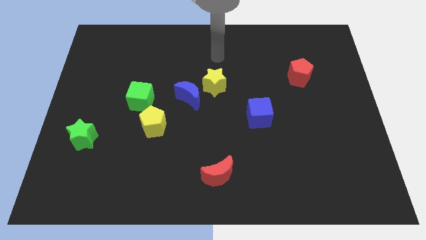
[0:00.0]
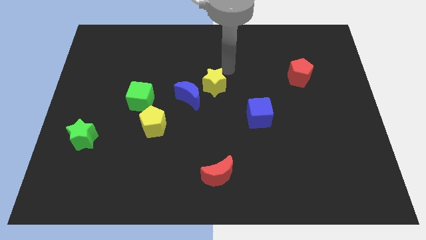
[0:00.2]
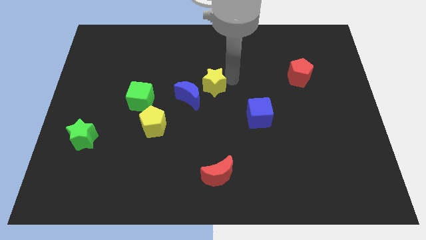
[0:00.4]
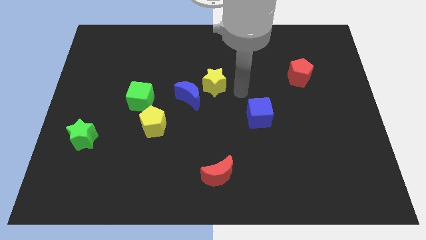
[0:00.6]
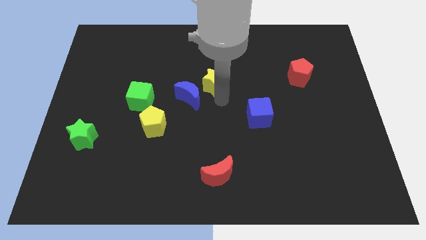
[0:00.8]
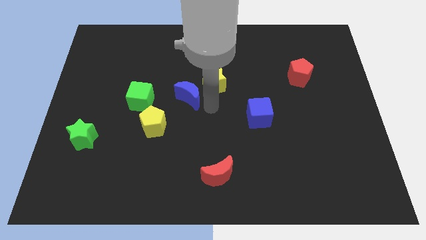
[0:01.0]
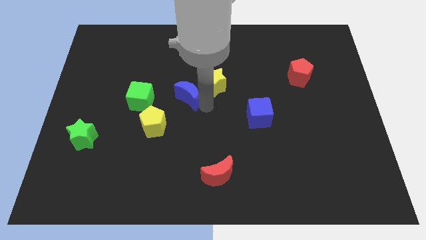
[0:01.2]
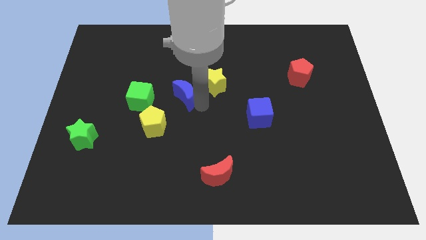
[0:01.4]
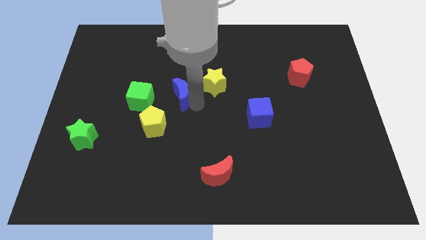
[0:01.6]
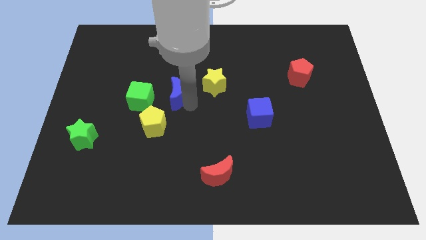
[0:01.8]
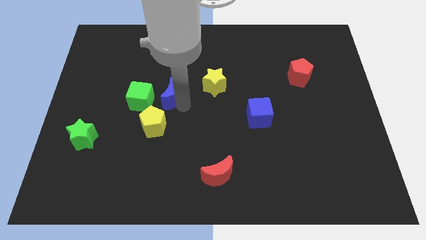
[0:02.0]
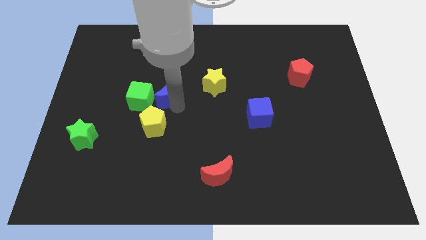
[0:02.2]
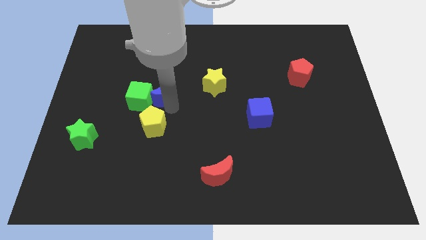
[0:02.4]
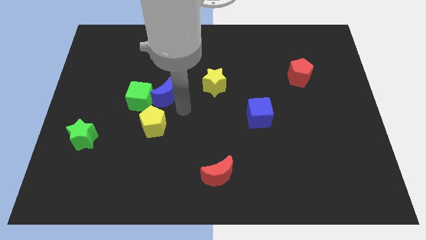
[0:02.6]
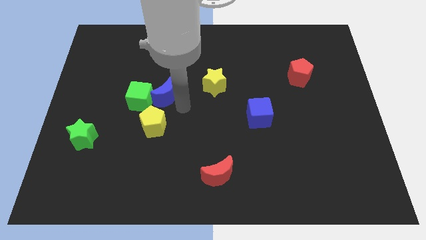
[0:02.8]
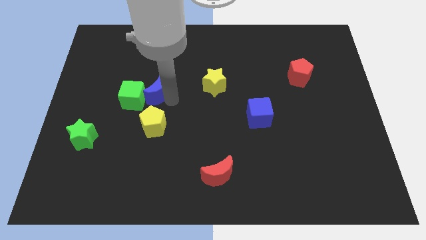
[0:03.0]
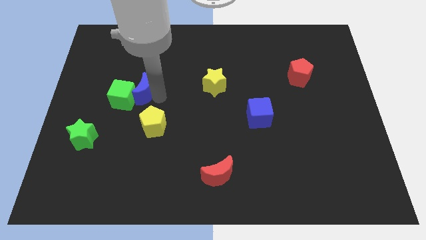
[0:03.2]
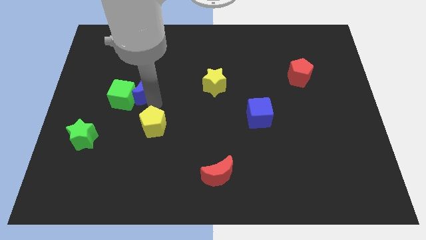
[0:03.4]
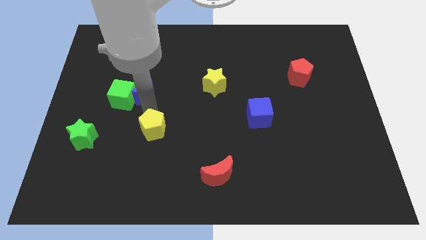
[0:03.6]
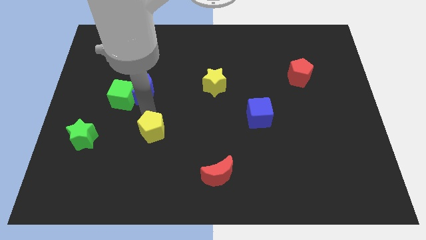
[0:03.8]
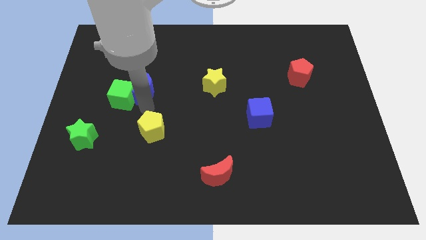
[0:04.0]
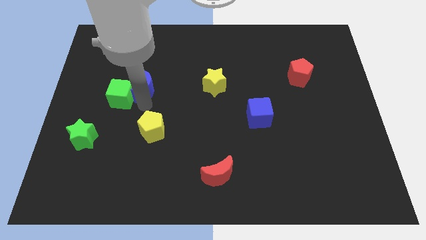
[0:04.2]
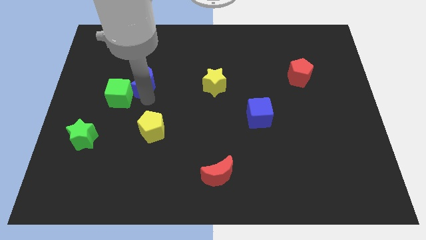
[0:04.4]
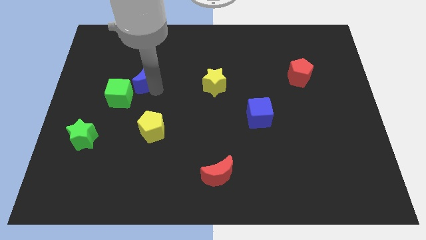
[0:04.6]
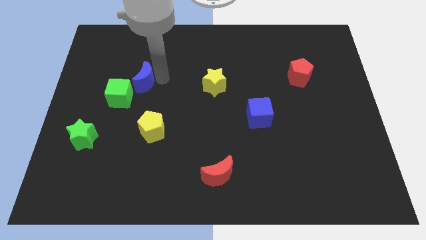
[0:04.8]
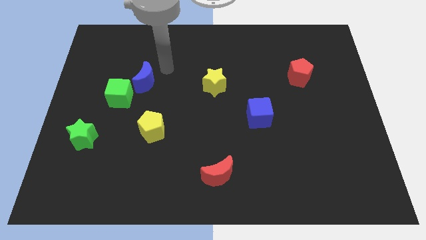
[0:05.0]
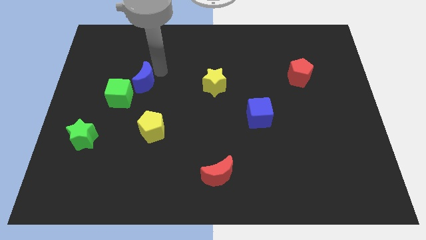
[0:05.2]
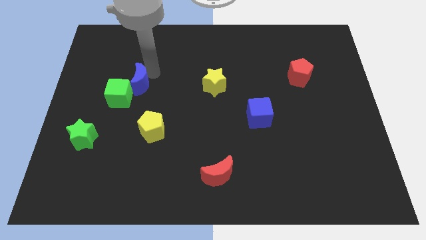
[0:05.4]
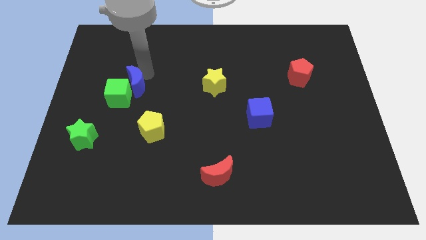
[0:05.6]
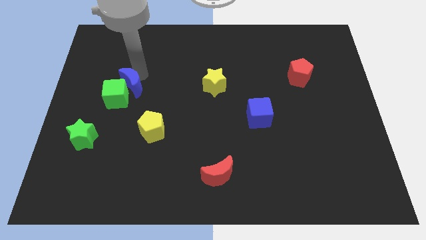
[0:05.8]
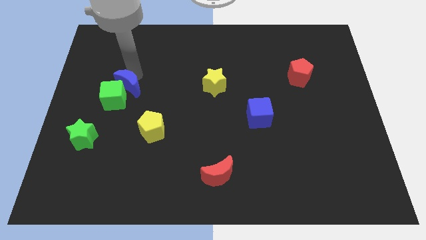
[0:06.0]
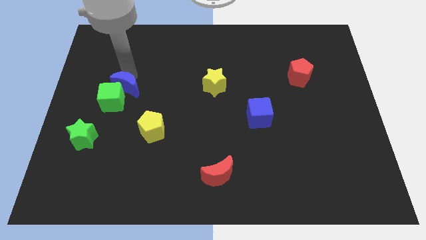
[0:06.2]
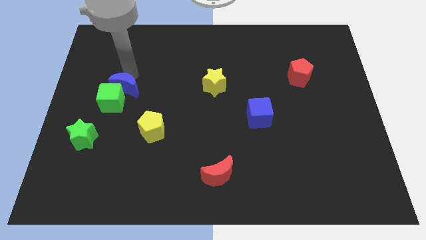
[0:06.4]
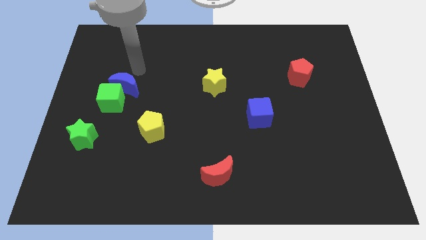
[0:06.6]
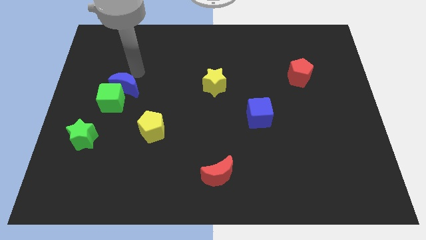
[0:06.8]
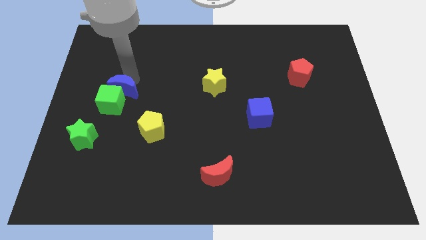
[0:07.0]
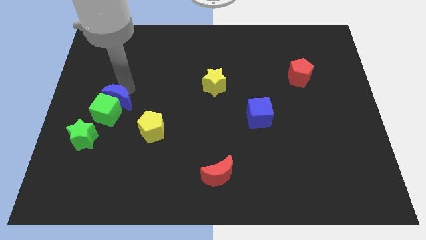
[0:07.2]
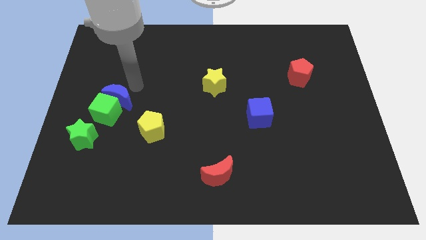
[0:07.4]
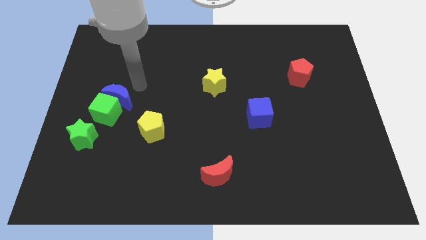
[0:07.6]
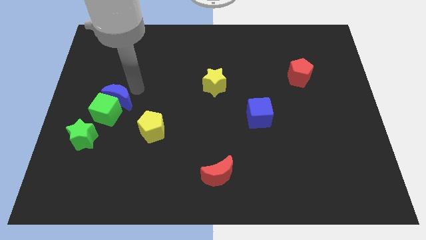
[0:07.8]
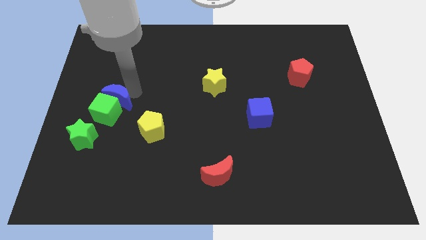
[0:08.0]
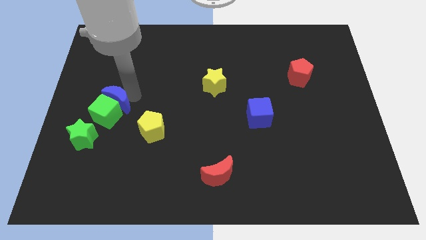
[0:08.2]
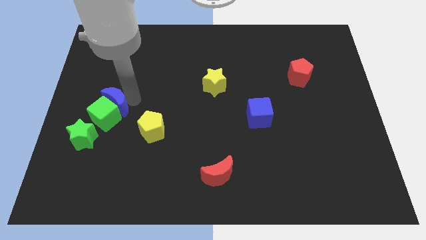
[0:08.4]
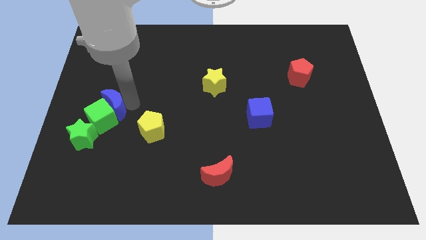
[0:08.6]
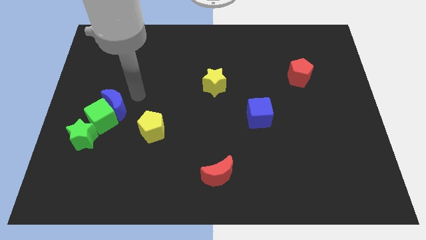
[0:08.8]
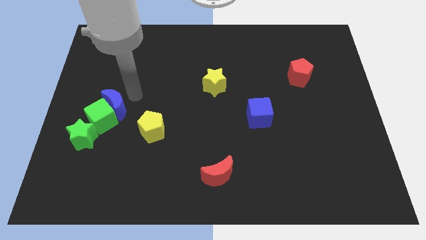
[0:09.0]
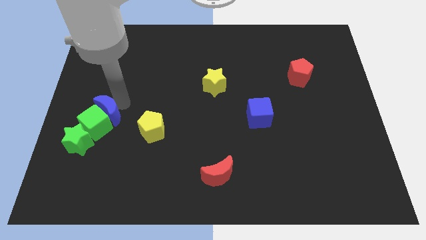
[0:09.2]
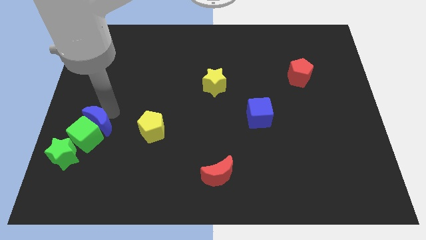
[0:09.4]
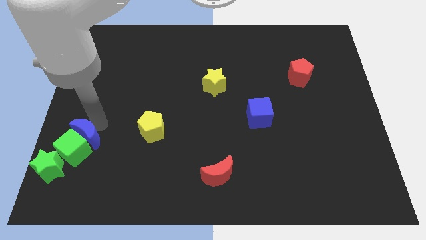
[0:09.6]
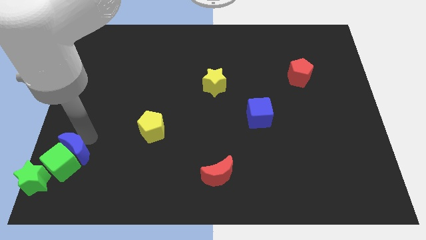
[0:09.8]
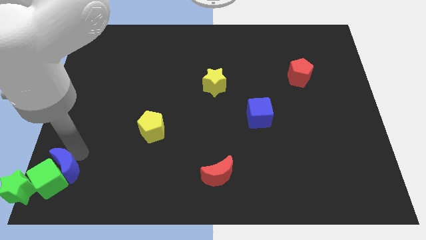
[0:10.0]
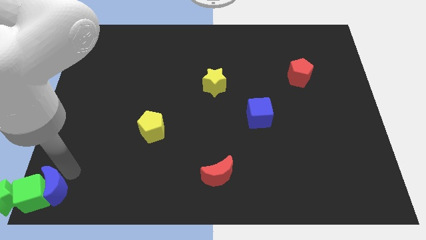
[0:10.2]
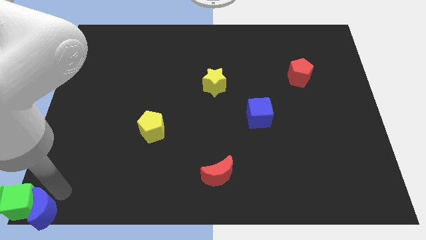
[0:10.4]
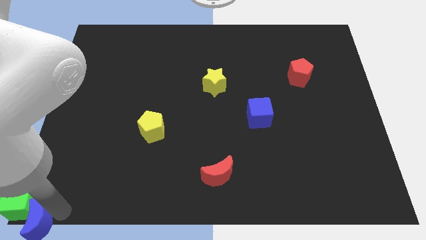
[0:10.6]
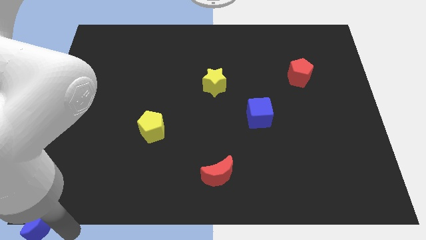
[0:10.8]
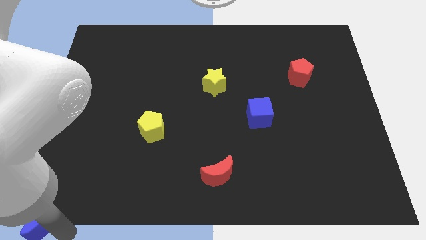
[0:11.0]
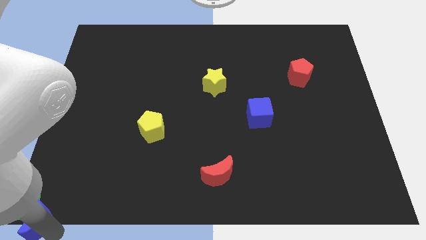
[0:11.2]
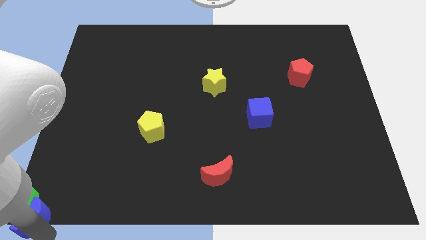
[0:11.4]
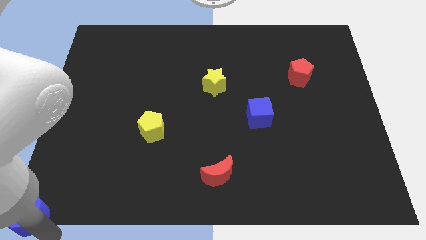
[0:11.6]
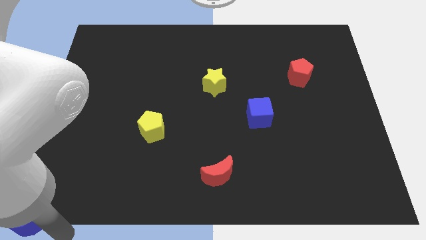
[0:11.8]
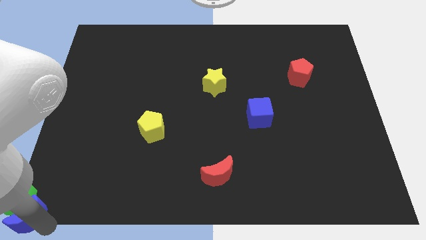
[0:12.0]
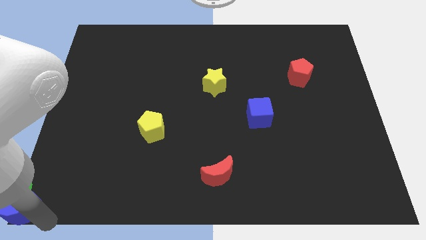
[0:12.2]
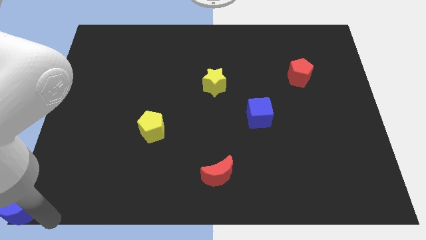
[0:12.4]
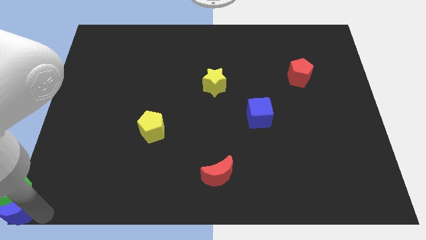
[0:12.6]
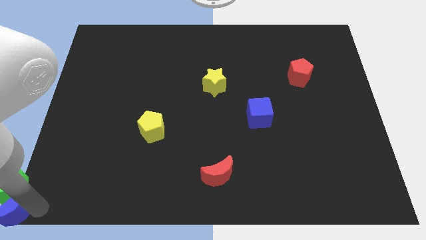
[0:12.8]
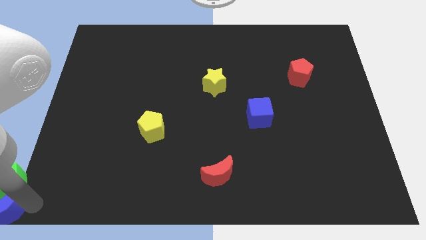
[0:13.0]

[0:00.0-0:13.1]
push the blue moon next to the green star

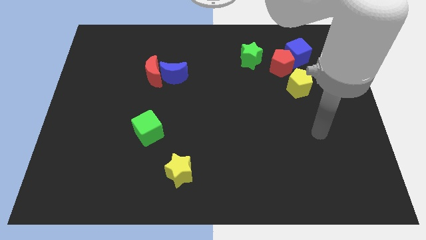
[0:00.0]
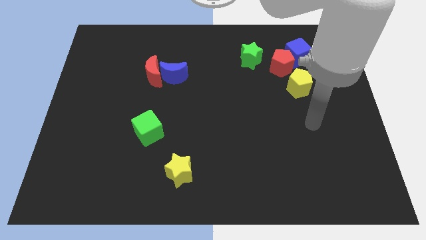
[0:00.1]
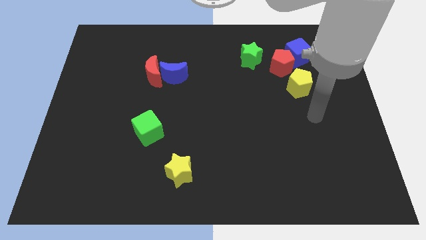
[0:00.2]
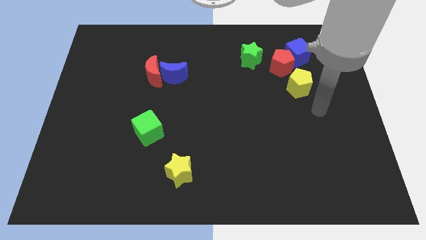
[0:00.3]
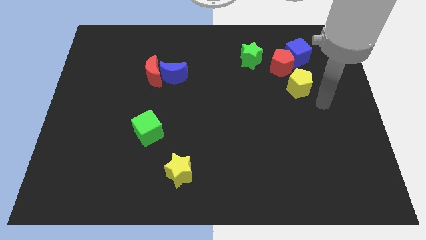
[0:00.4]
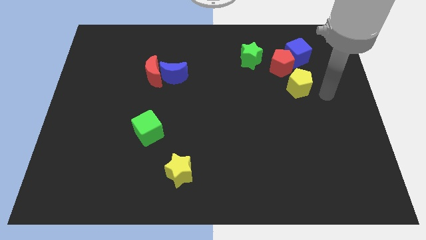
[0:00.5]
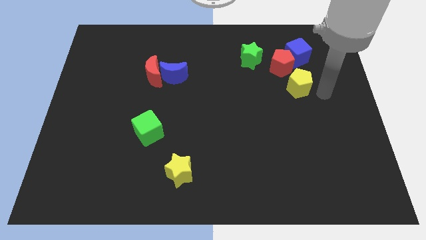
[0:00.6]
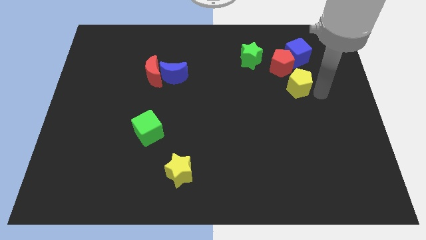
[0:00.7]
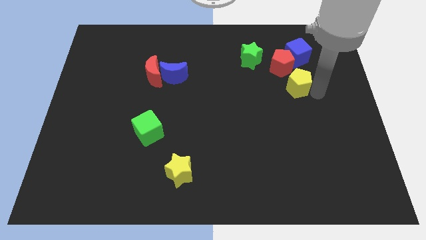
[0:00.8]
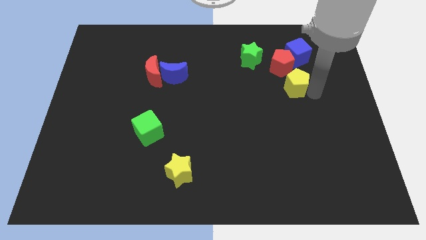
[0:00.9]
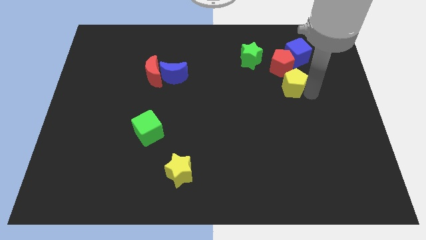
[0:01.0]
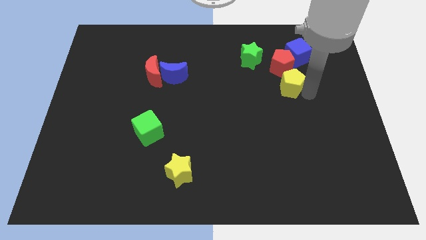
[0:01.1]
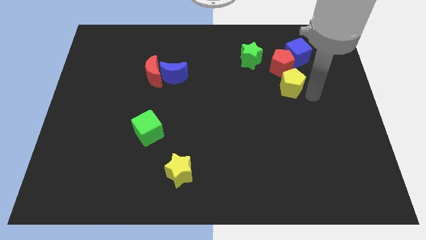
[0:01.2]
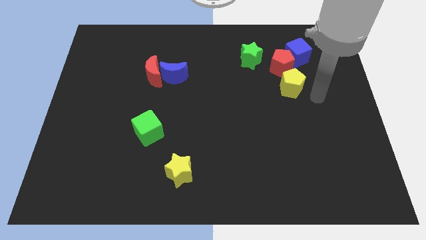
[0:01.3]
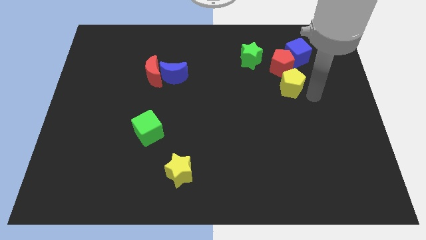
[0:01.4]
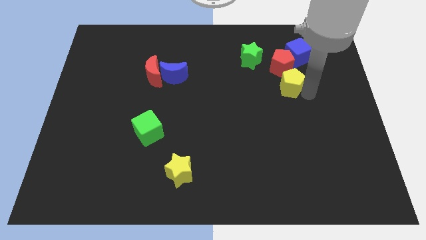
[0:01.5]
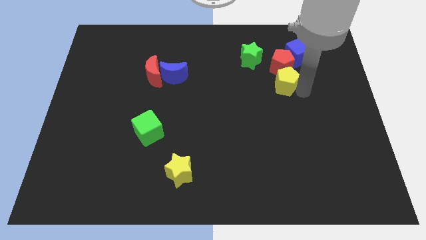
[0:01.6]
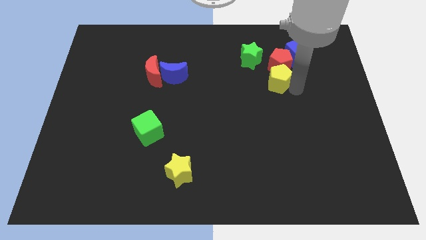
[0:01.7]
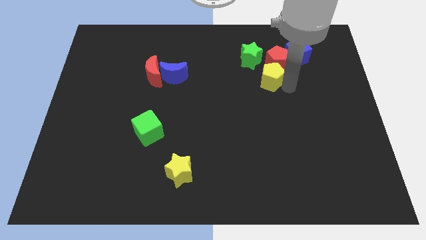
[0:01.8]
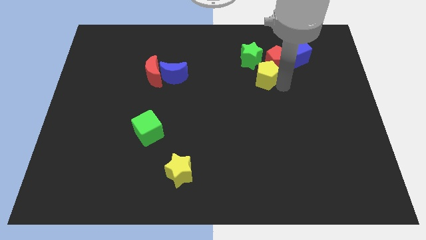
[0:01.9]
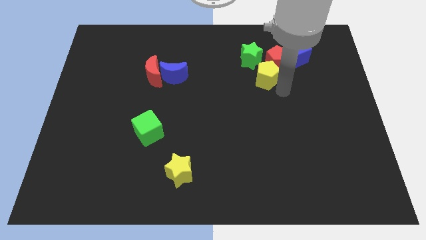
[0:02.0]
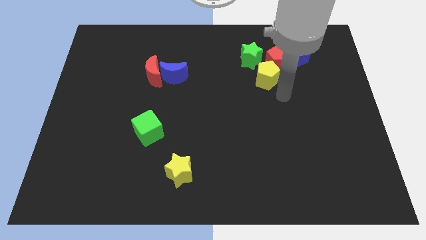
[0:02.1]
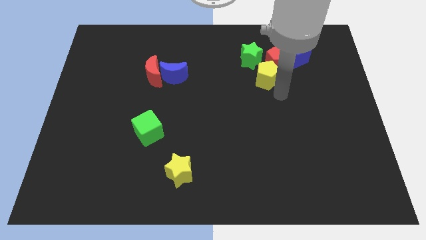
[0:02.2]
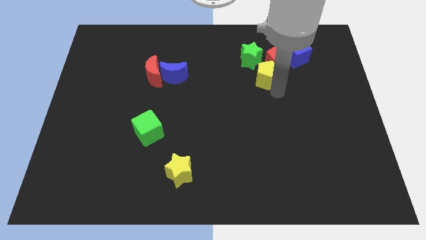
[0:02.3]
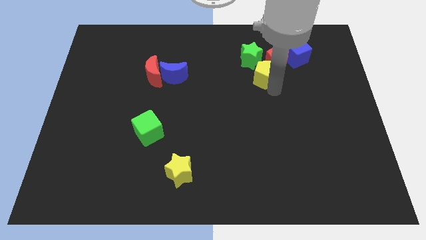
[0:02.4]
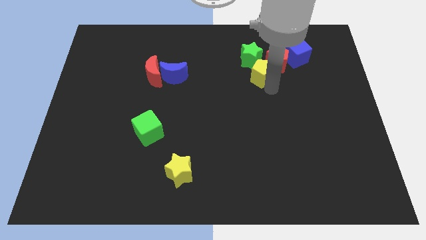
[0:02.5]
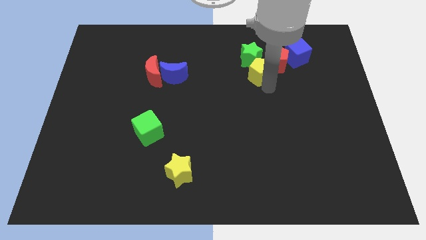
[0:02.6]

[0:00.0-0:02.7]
slide the yellow pentagon close to the green star
